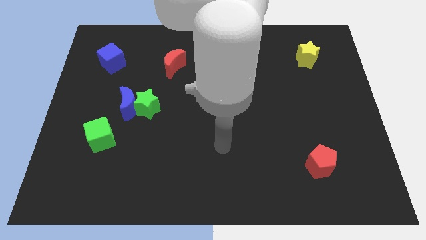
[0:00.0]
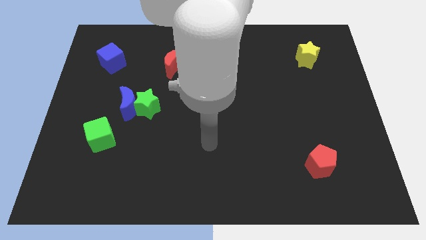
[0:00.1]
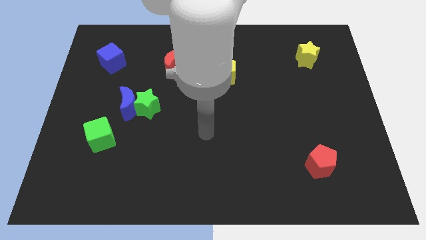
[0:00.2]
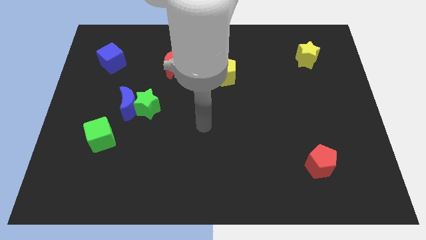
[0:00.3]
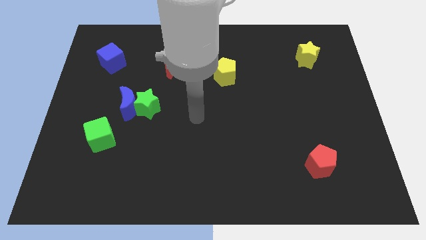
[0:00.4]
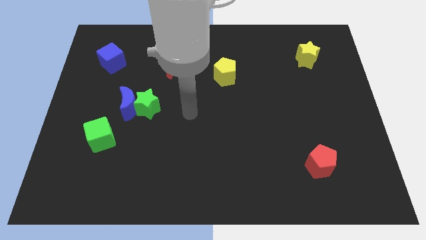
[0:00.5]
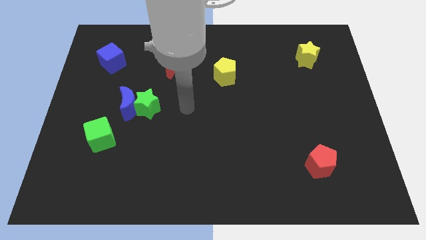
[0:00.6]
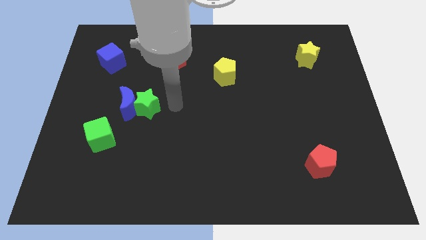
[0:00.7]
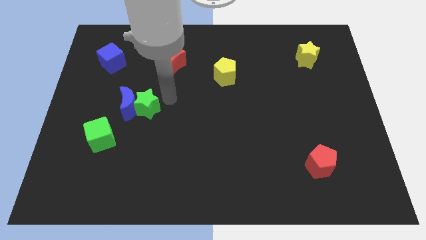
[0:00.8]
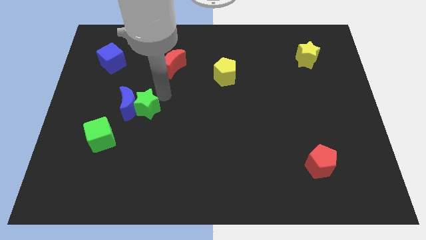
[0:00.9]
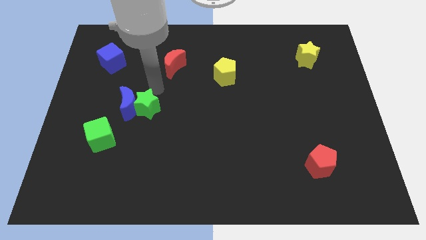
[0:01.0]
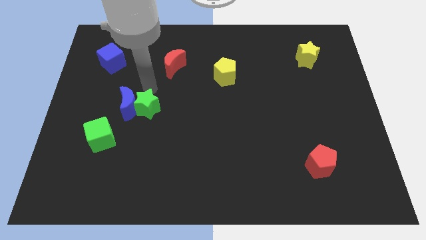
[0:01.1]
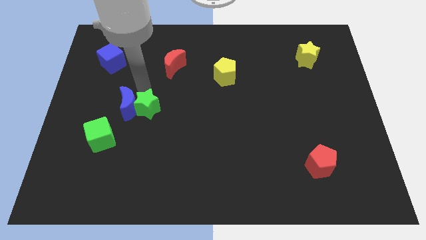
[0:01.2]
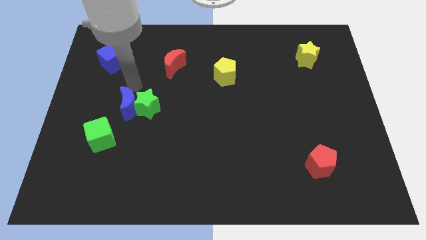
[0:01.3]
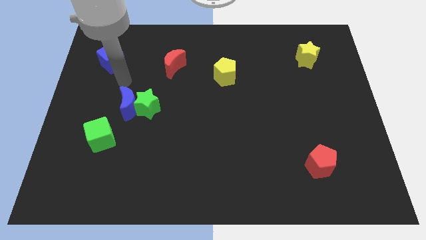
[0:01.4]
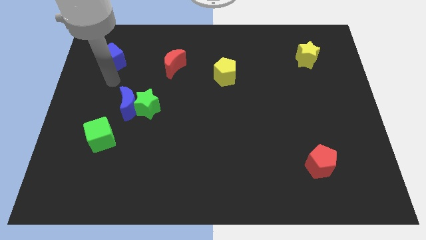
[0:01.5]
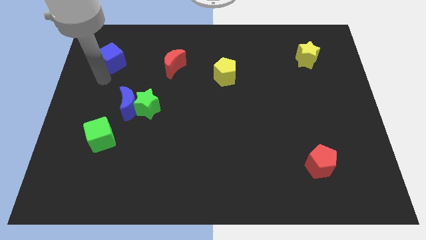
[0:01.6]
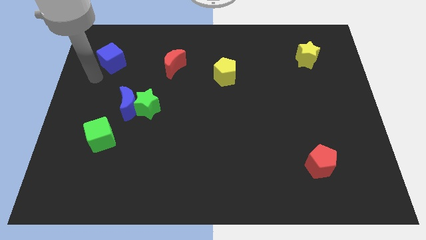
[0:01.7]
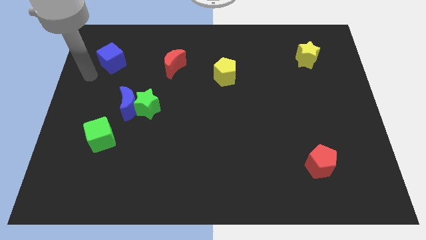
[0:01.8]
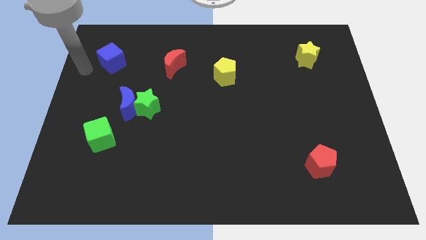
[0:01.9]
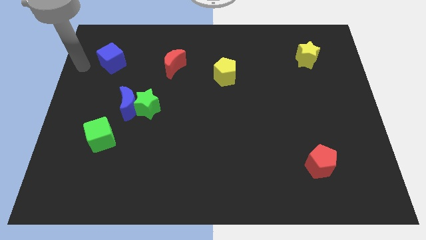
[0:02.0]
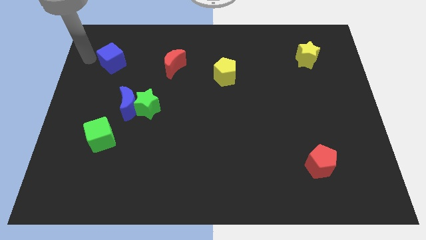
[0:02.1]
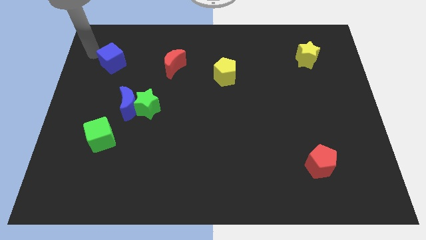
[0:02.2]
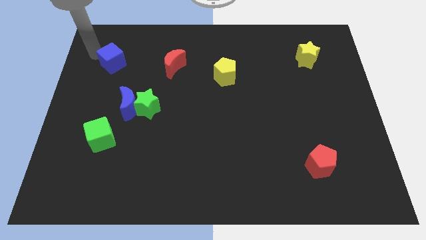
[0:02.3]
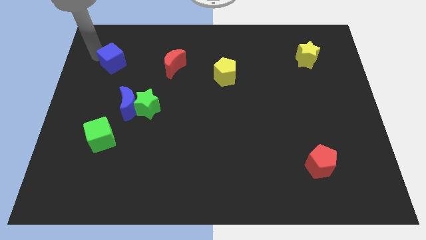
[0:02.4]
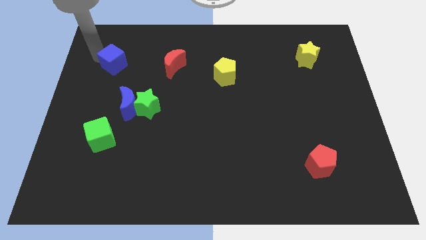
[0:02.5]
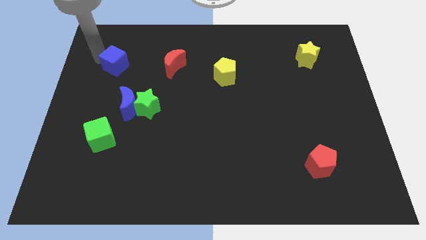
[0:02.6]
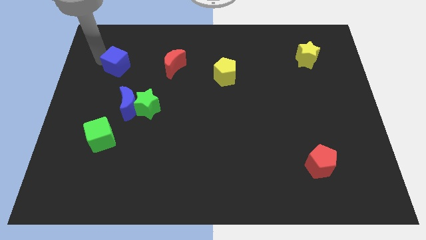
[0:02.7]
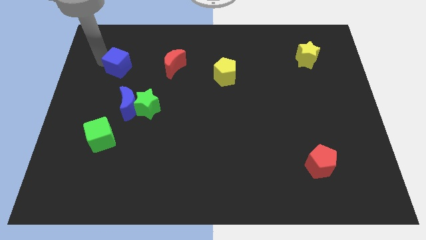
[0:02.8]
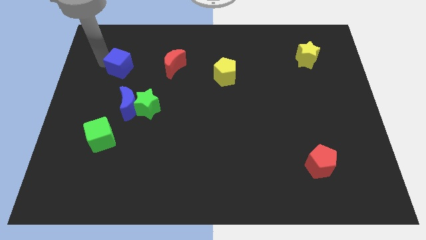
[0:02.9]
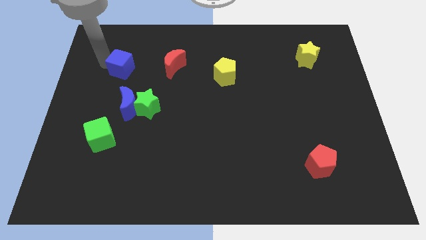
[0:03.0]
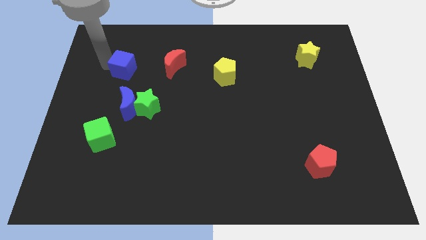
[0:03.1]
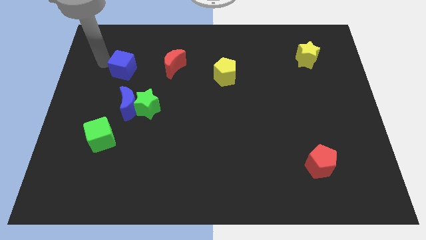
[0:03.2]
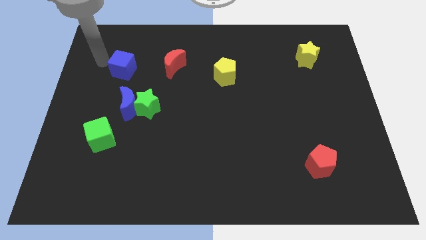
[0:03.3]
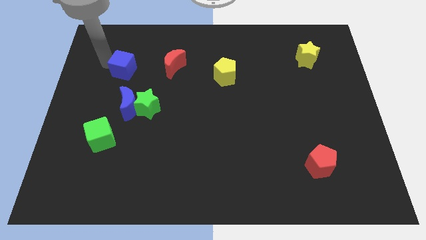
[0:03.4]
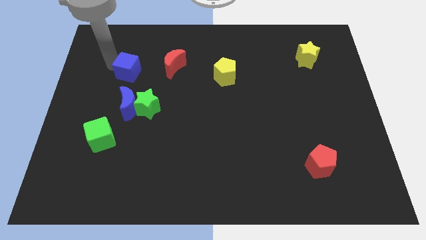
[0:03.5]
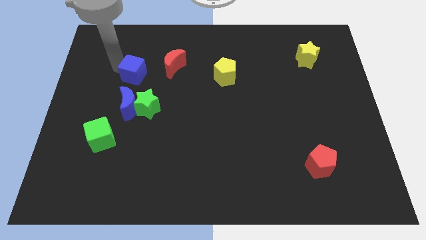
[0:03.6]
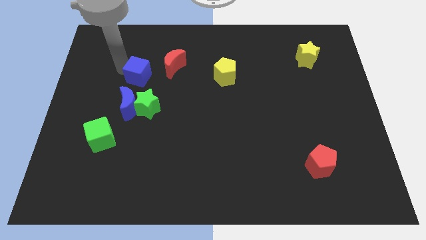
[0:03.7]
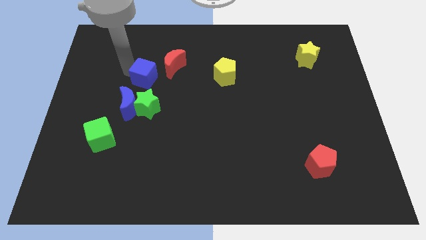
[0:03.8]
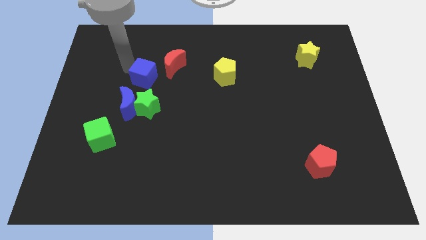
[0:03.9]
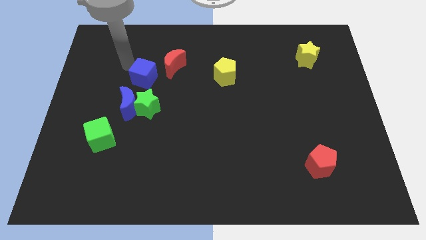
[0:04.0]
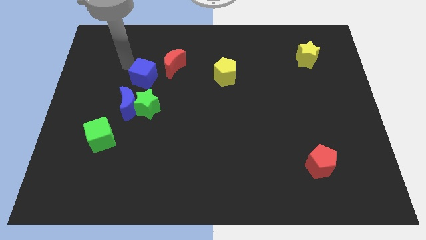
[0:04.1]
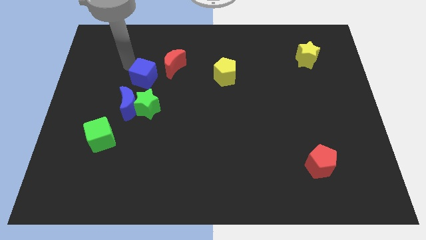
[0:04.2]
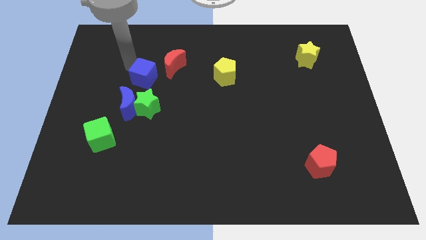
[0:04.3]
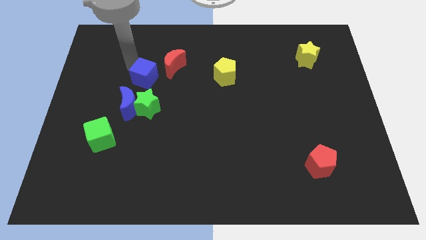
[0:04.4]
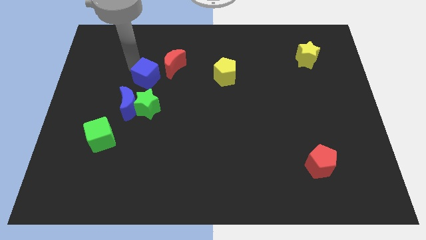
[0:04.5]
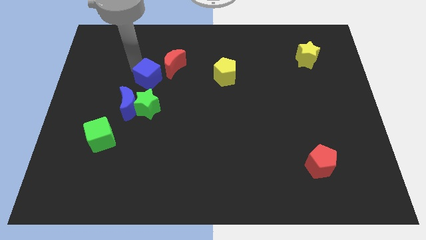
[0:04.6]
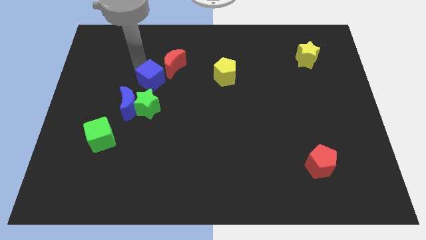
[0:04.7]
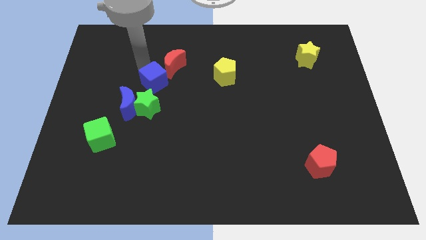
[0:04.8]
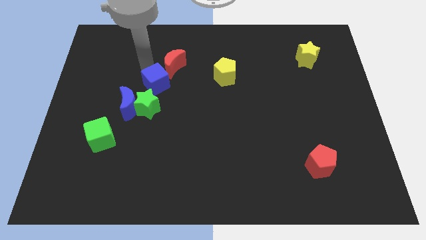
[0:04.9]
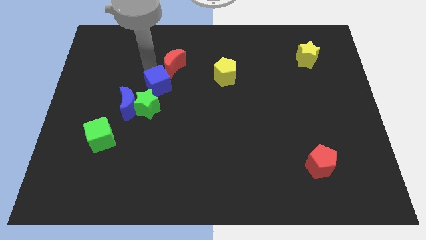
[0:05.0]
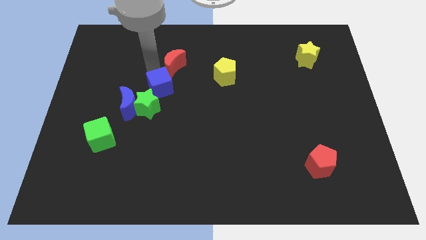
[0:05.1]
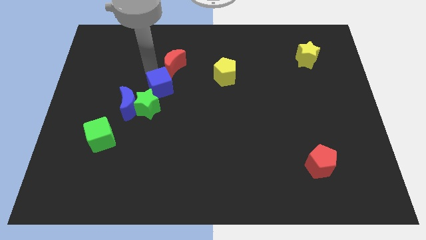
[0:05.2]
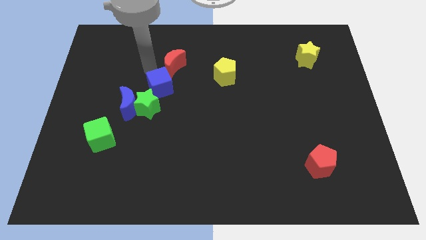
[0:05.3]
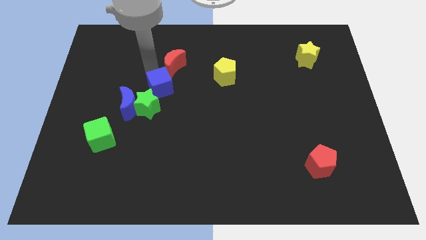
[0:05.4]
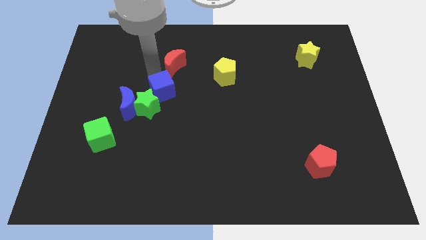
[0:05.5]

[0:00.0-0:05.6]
slide the blue cube to the right of the blue moon
